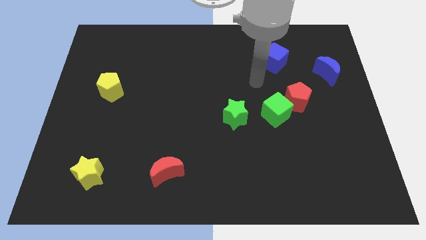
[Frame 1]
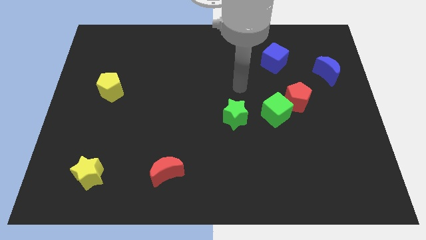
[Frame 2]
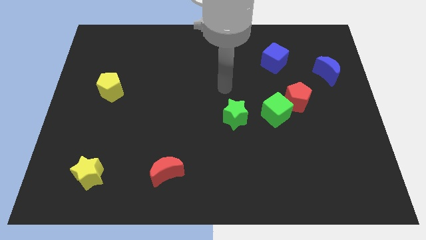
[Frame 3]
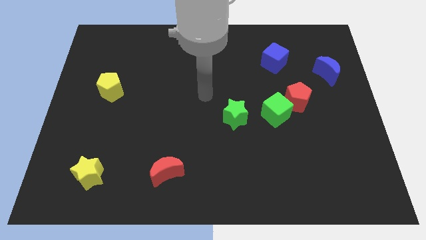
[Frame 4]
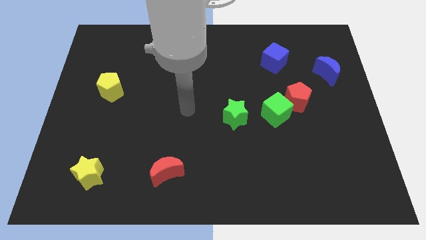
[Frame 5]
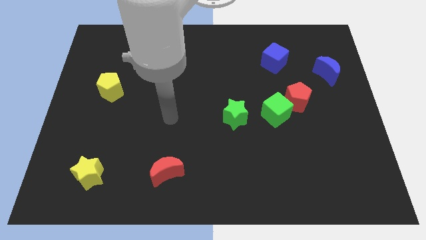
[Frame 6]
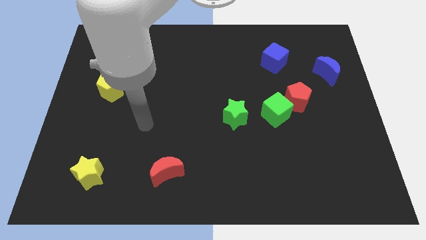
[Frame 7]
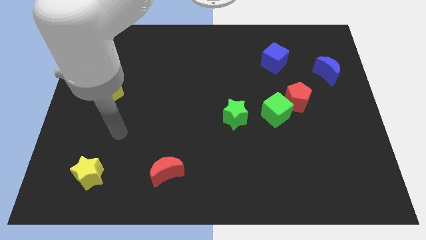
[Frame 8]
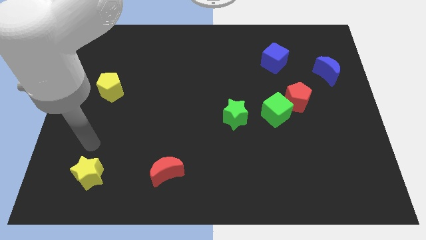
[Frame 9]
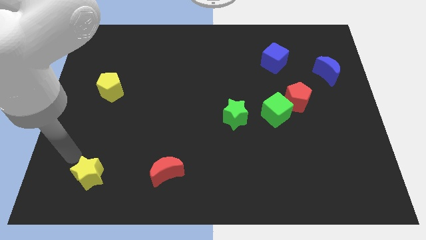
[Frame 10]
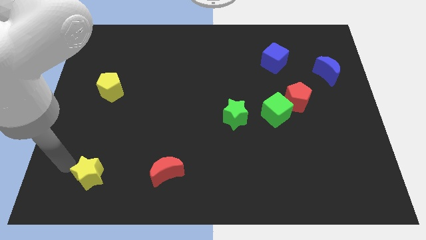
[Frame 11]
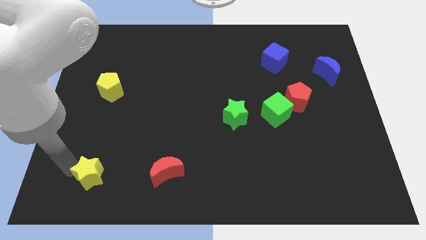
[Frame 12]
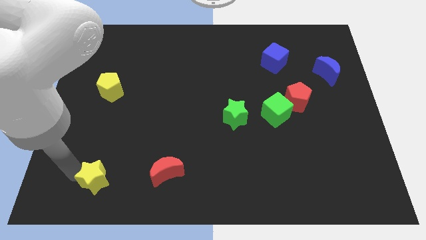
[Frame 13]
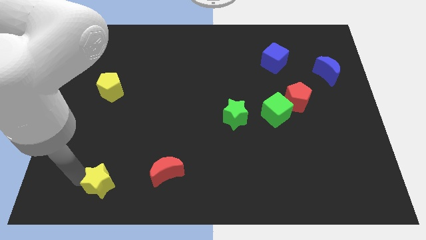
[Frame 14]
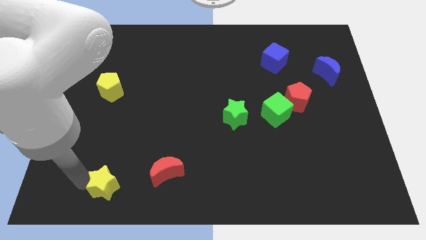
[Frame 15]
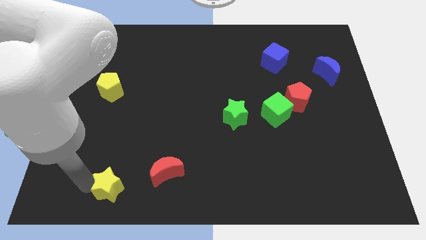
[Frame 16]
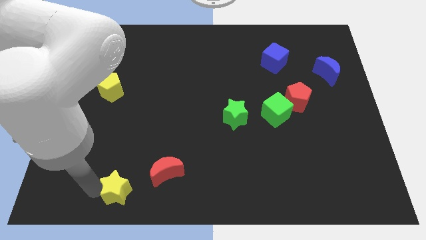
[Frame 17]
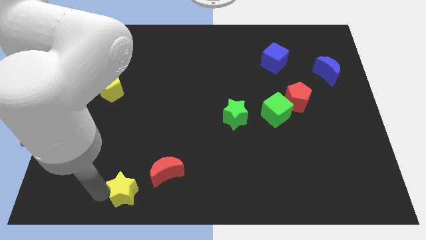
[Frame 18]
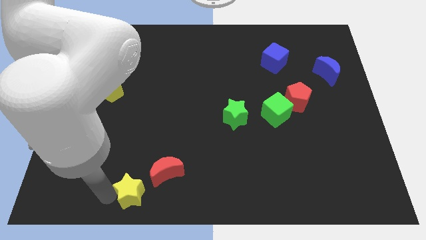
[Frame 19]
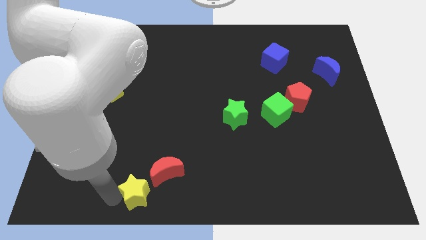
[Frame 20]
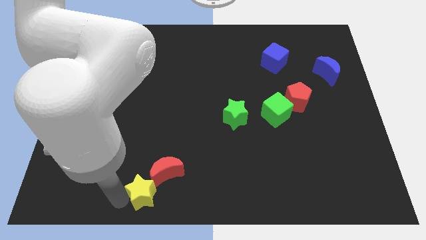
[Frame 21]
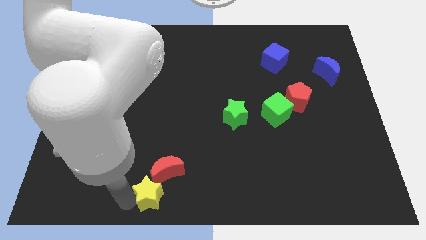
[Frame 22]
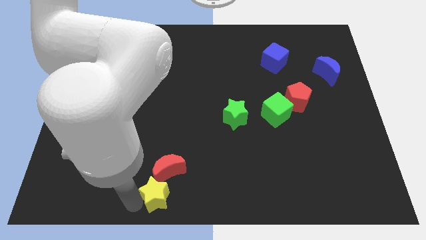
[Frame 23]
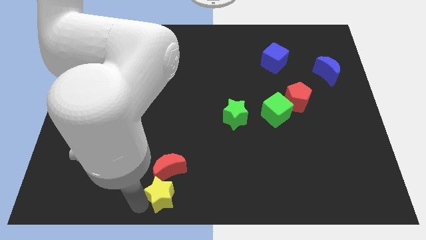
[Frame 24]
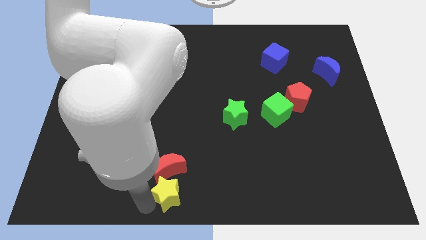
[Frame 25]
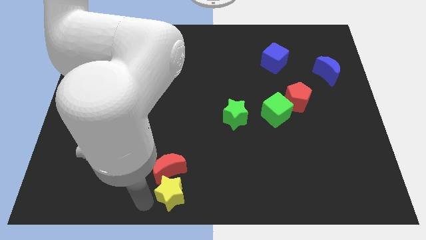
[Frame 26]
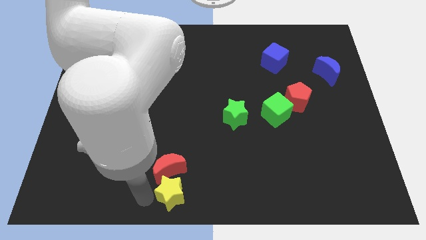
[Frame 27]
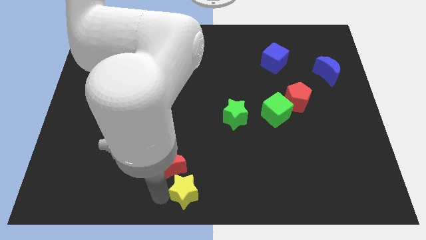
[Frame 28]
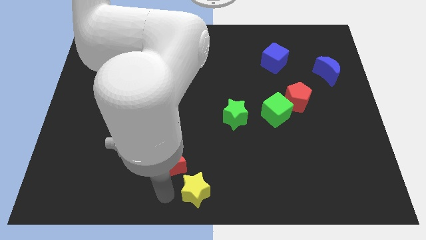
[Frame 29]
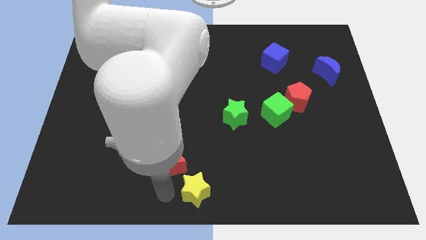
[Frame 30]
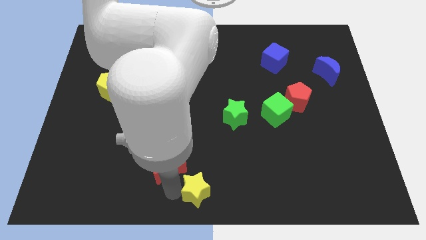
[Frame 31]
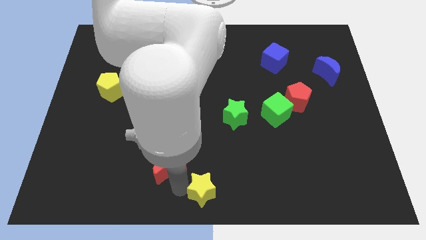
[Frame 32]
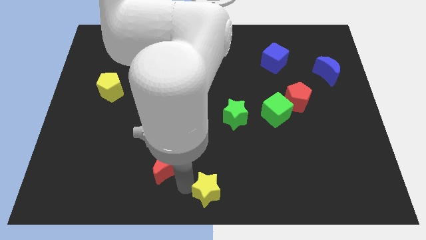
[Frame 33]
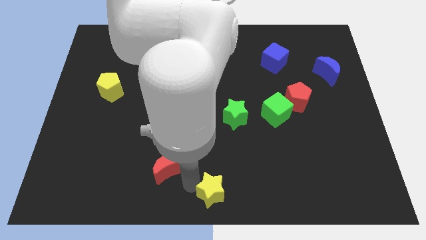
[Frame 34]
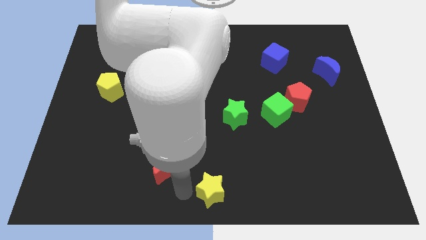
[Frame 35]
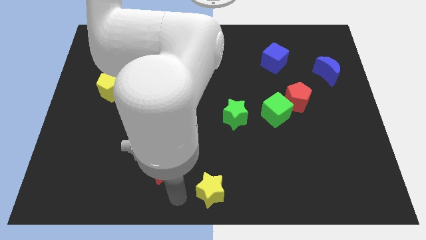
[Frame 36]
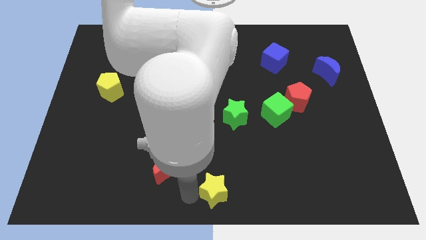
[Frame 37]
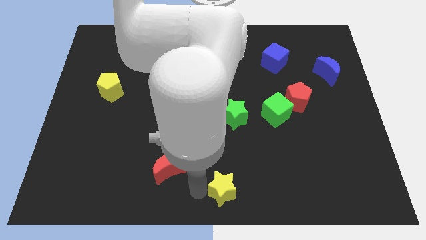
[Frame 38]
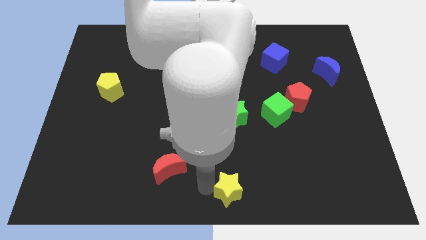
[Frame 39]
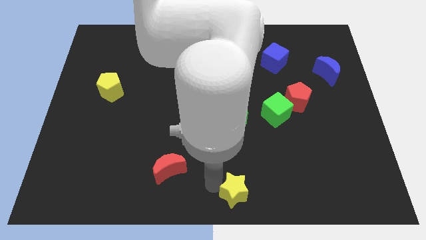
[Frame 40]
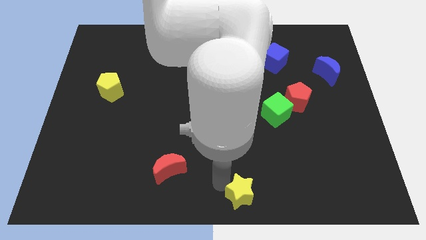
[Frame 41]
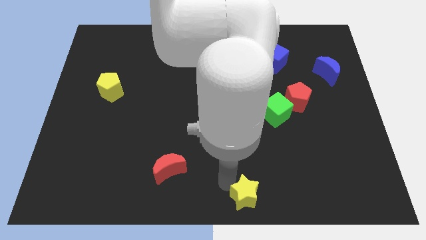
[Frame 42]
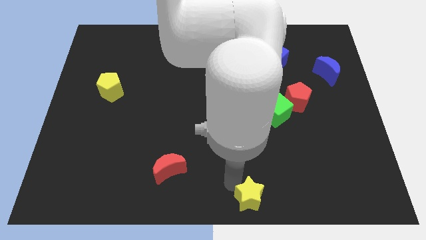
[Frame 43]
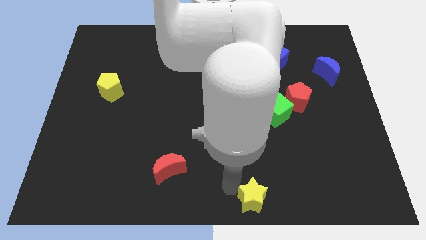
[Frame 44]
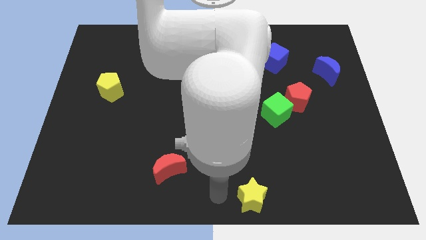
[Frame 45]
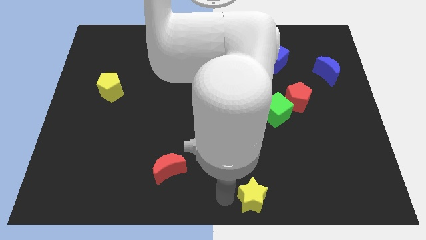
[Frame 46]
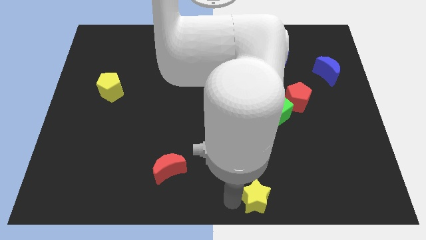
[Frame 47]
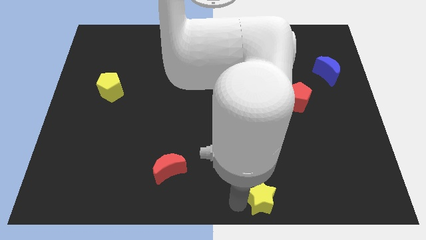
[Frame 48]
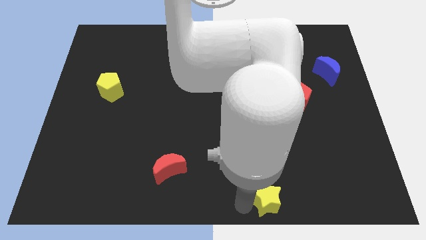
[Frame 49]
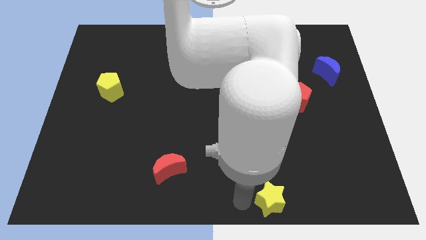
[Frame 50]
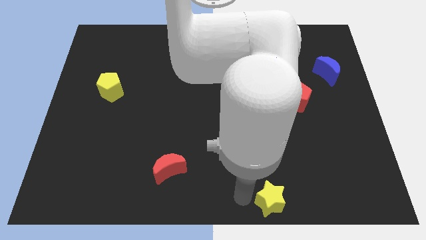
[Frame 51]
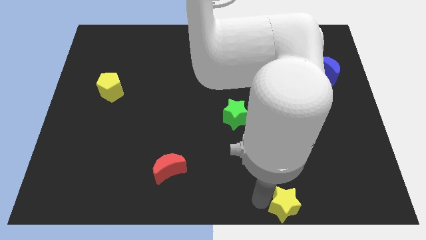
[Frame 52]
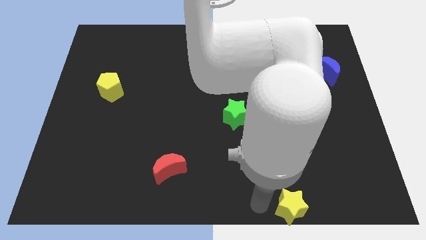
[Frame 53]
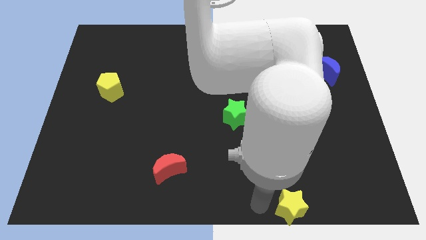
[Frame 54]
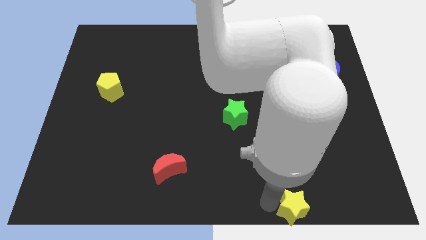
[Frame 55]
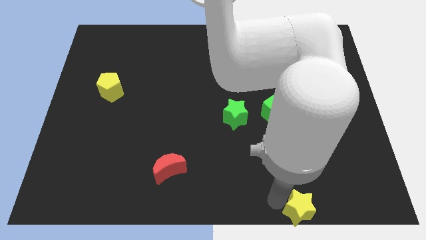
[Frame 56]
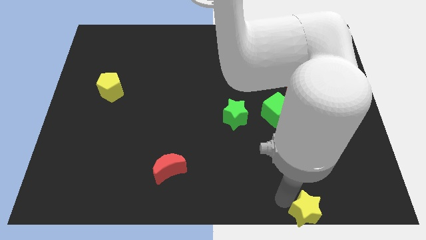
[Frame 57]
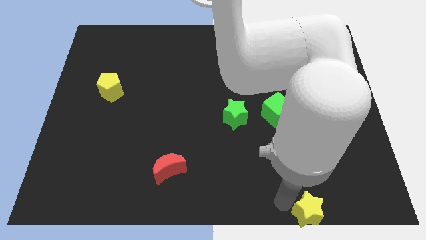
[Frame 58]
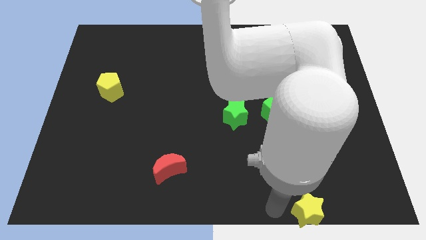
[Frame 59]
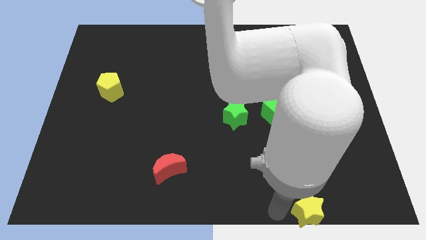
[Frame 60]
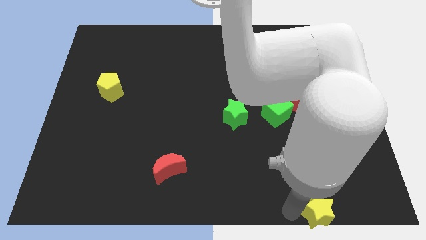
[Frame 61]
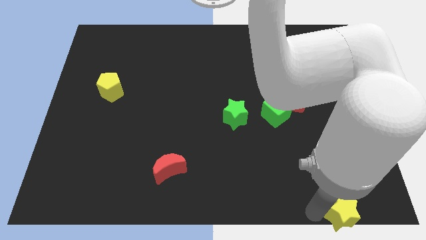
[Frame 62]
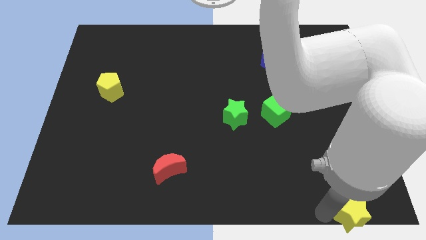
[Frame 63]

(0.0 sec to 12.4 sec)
push the yellow star to the bottom right corner
